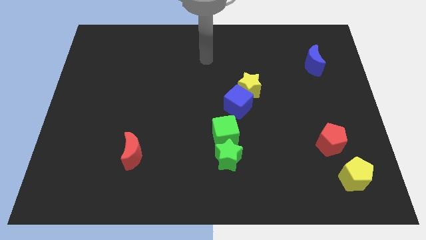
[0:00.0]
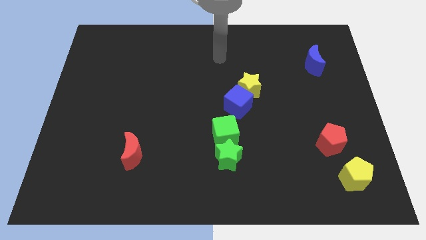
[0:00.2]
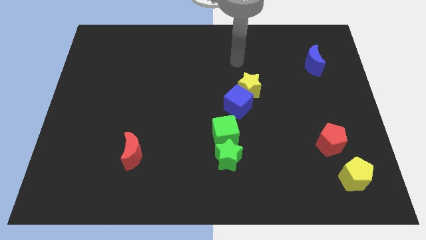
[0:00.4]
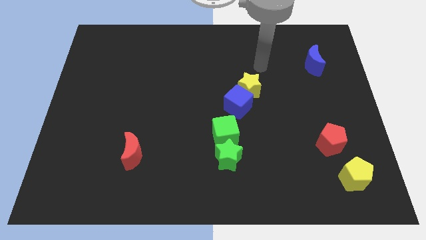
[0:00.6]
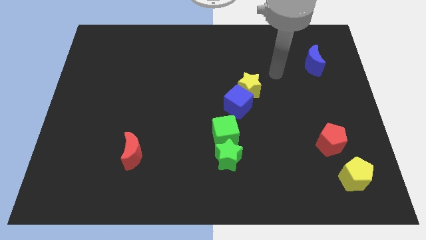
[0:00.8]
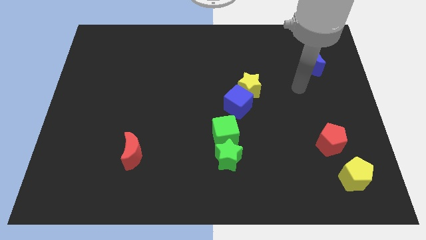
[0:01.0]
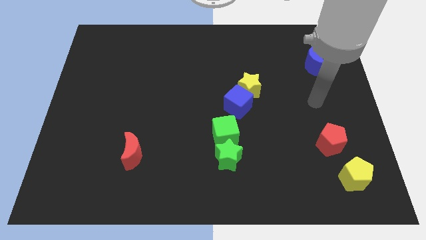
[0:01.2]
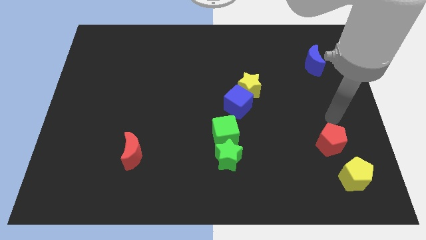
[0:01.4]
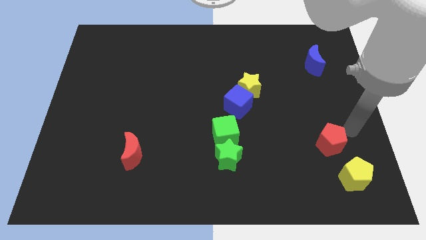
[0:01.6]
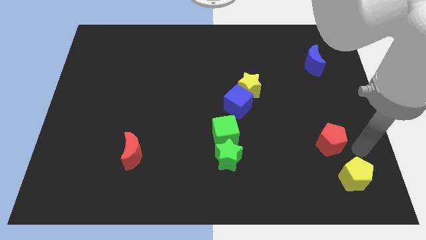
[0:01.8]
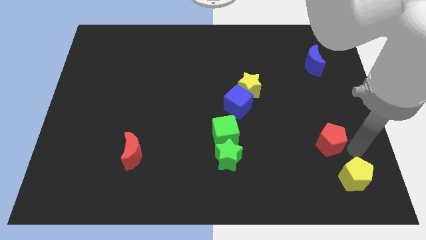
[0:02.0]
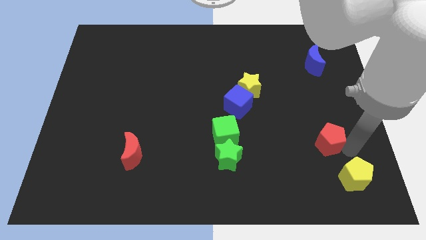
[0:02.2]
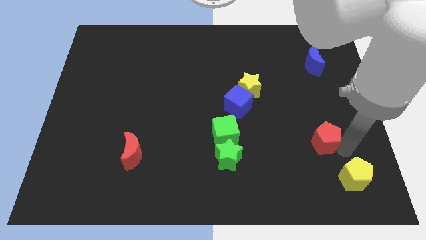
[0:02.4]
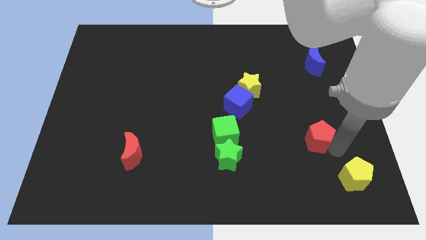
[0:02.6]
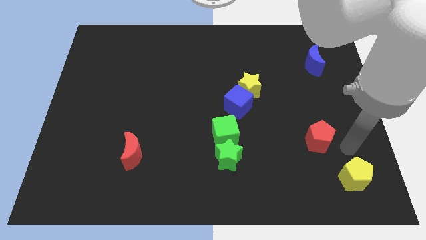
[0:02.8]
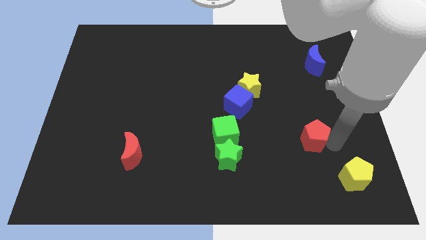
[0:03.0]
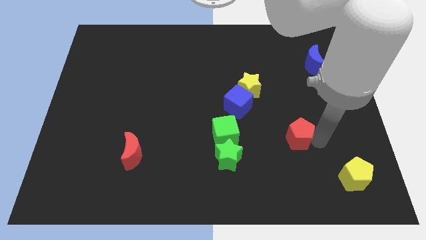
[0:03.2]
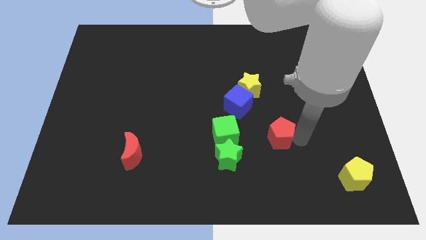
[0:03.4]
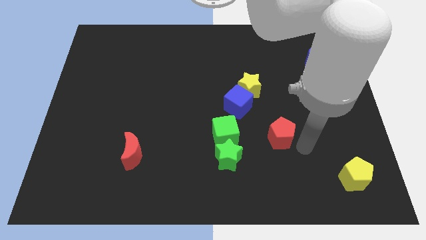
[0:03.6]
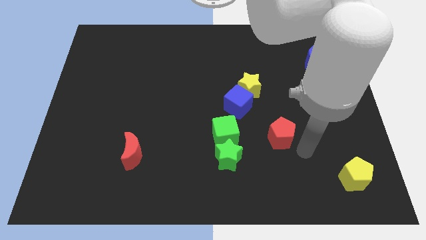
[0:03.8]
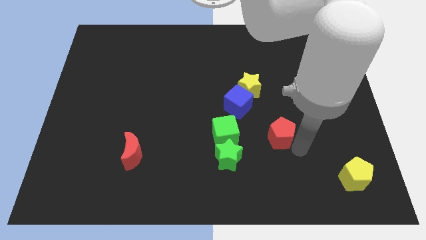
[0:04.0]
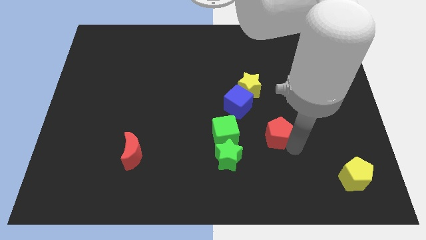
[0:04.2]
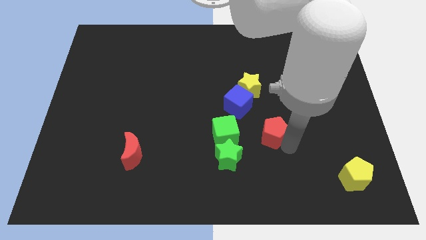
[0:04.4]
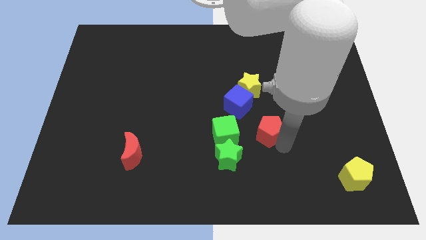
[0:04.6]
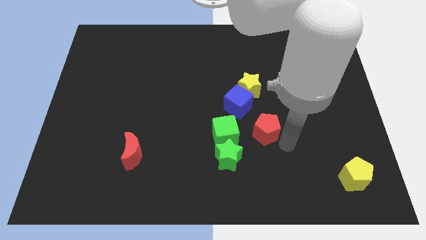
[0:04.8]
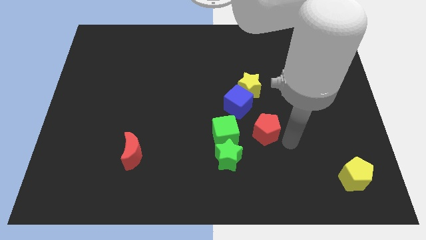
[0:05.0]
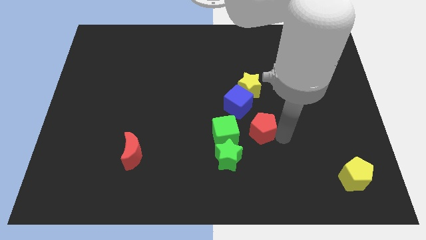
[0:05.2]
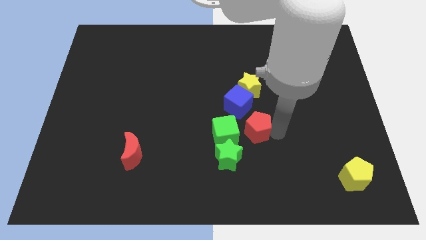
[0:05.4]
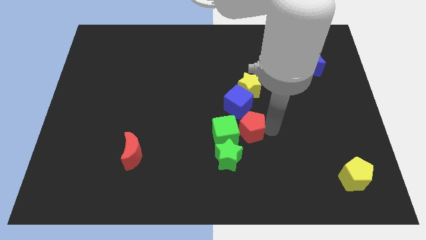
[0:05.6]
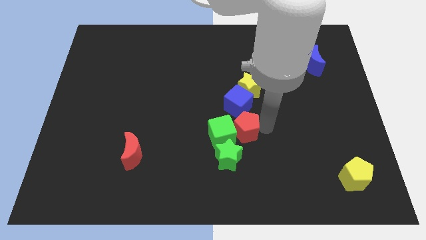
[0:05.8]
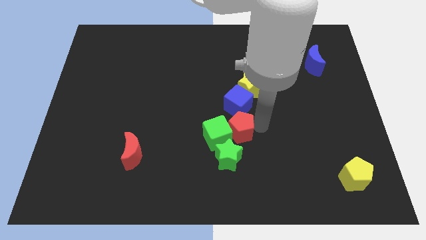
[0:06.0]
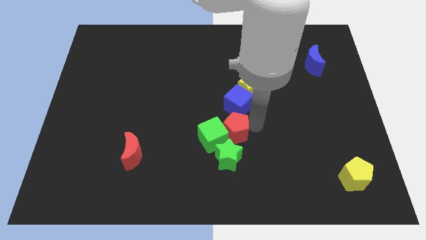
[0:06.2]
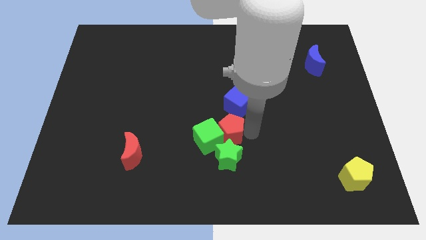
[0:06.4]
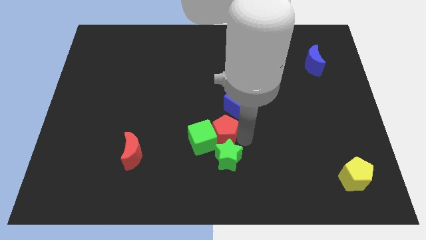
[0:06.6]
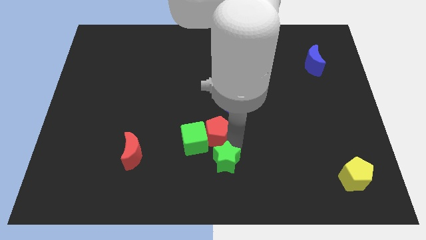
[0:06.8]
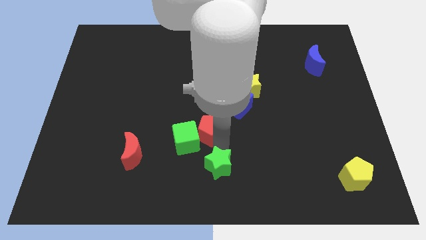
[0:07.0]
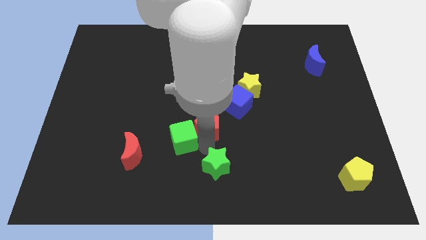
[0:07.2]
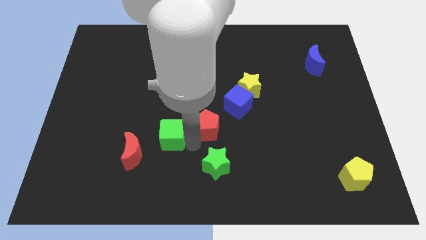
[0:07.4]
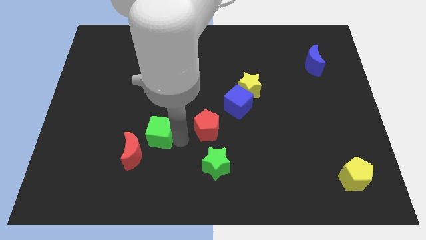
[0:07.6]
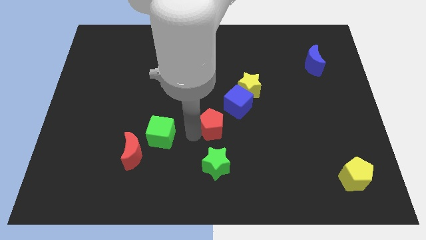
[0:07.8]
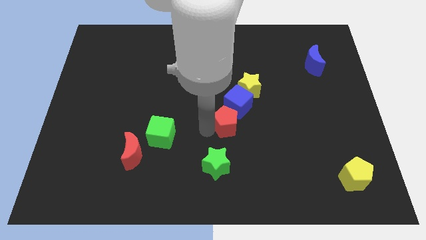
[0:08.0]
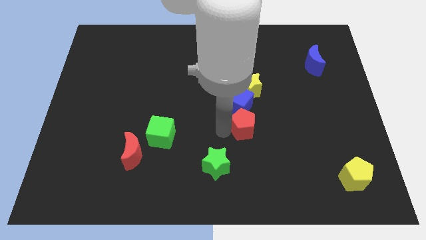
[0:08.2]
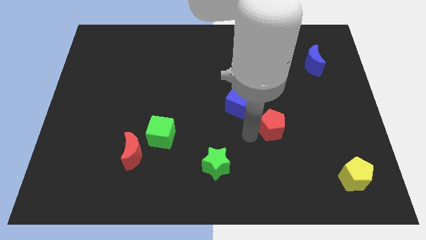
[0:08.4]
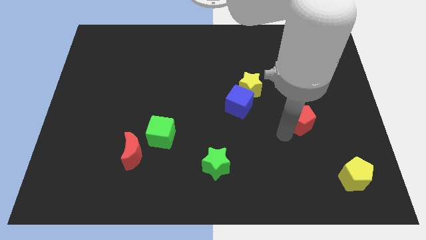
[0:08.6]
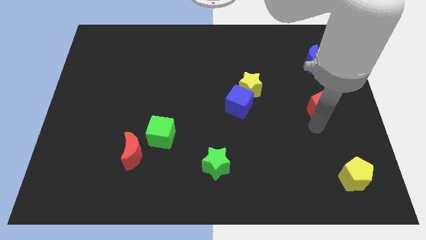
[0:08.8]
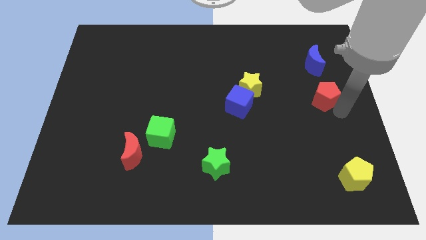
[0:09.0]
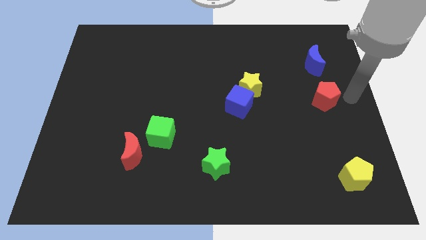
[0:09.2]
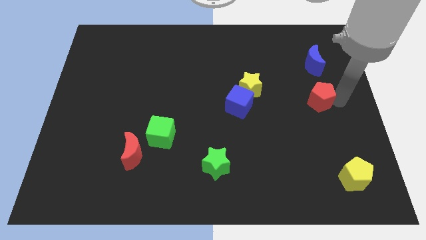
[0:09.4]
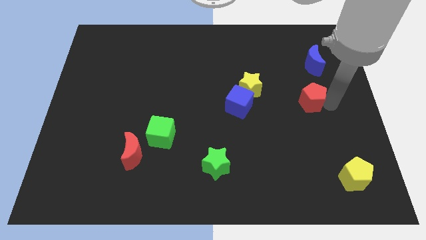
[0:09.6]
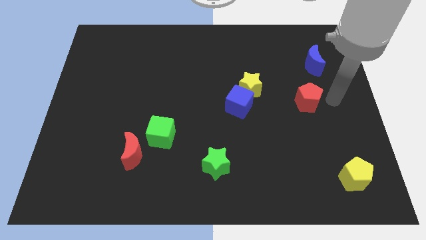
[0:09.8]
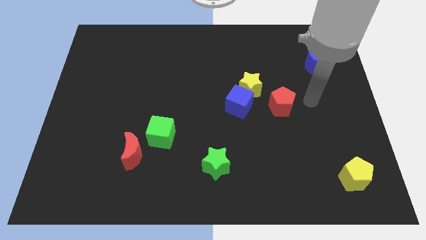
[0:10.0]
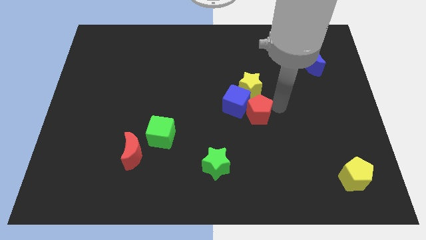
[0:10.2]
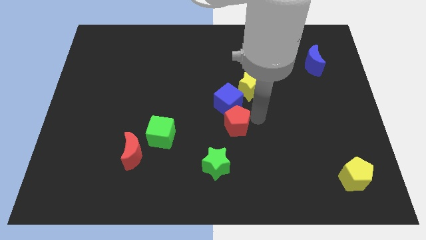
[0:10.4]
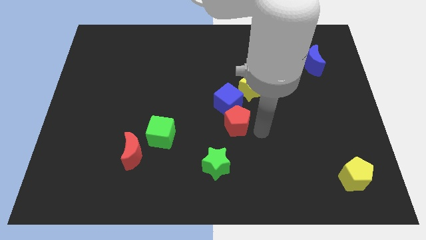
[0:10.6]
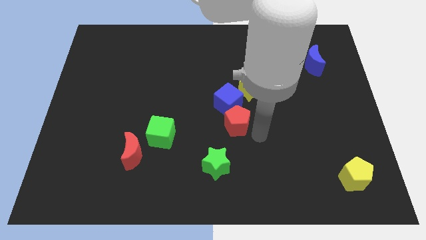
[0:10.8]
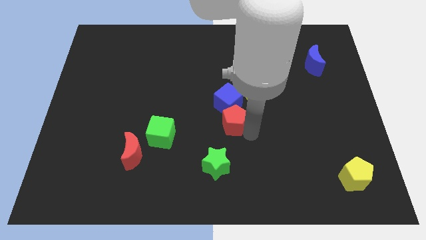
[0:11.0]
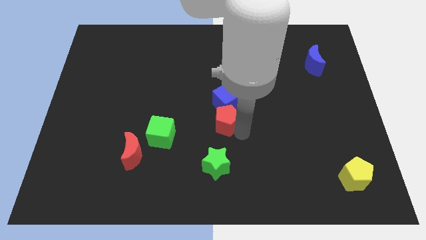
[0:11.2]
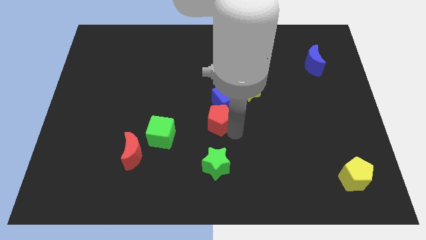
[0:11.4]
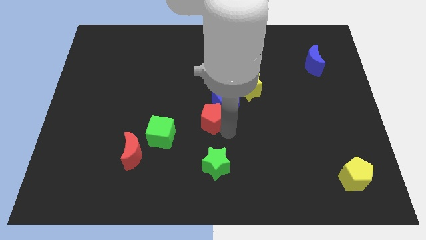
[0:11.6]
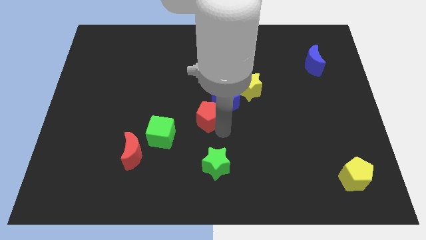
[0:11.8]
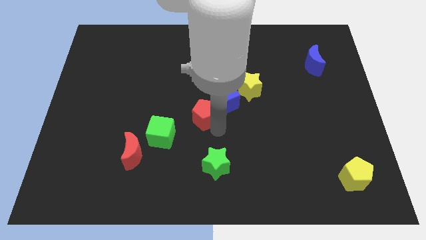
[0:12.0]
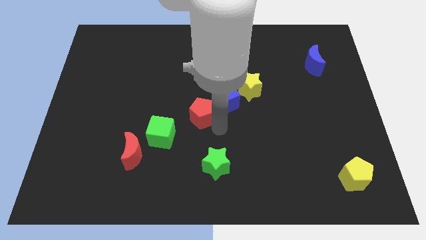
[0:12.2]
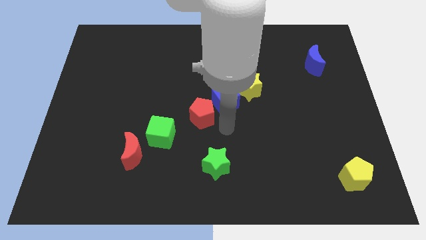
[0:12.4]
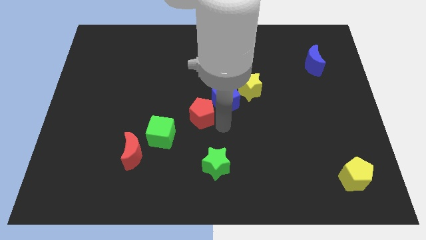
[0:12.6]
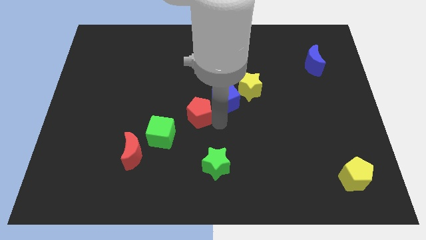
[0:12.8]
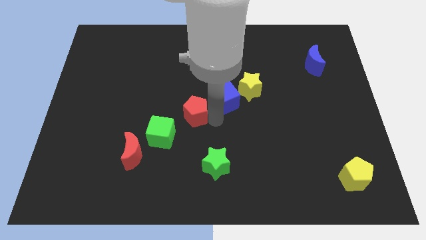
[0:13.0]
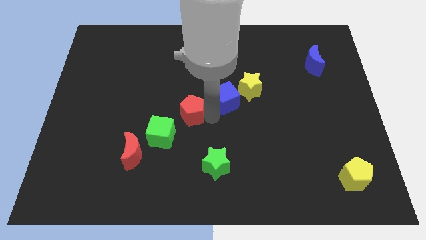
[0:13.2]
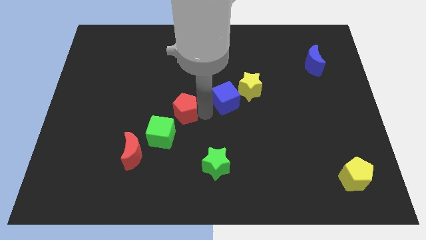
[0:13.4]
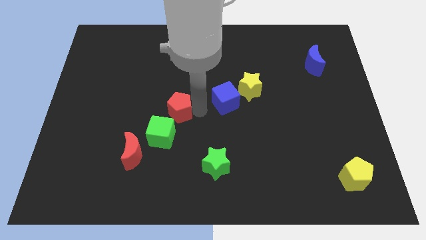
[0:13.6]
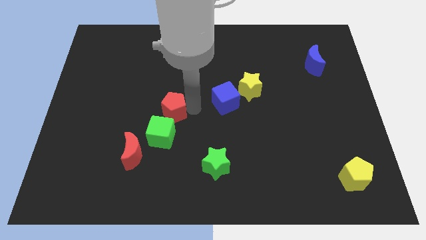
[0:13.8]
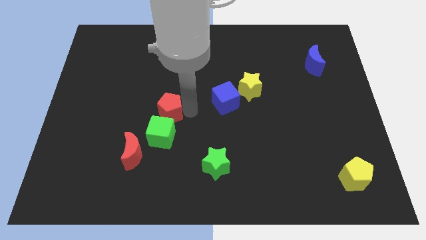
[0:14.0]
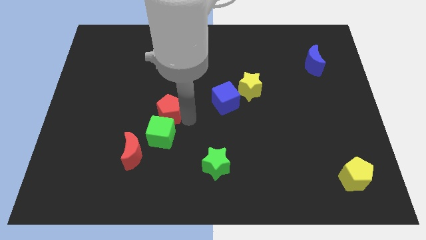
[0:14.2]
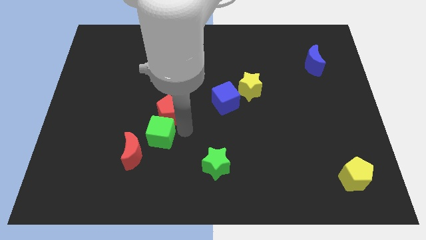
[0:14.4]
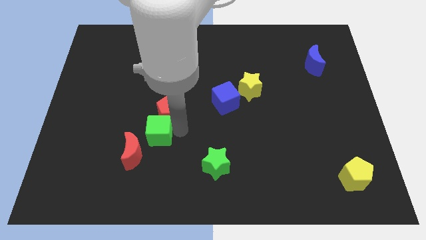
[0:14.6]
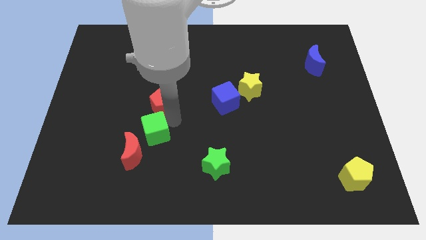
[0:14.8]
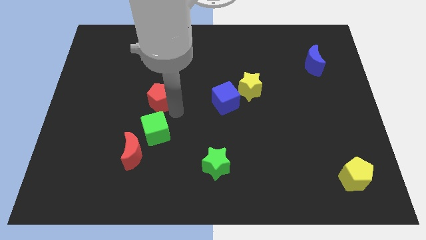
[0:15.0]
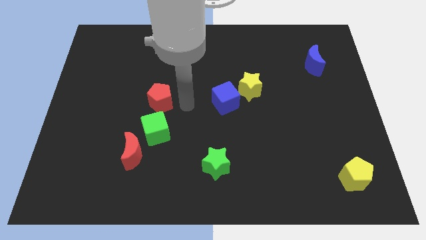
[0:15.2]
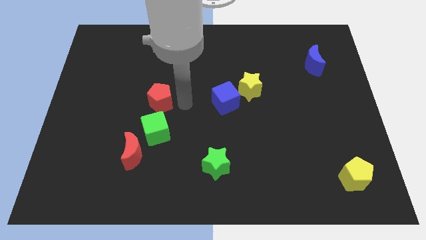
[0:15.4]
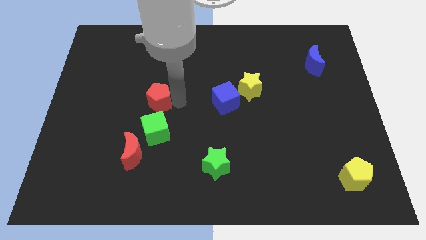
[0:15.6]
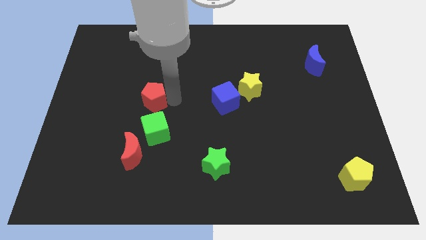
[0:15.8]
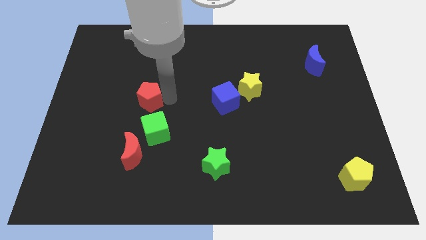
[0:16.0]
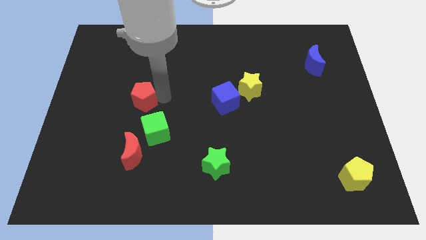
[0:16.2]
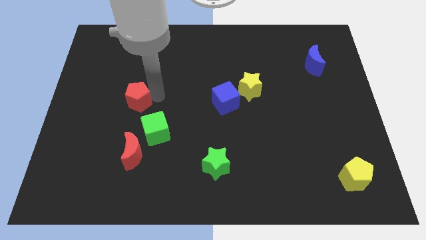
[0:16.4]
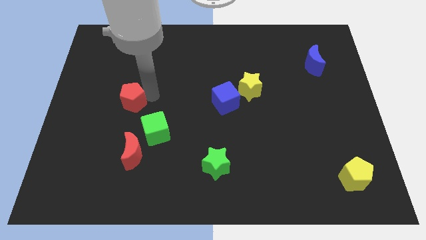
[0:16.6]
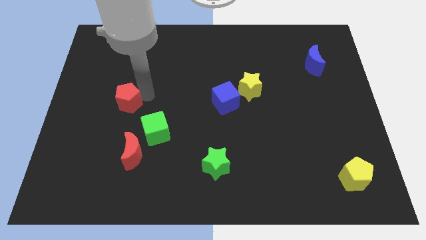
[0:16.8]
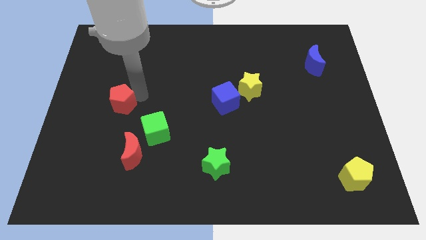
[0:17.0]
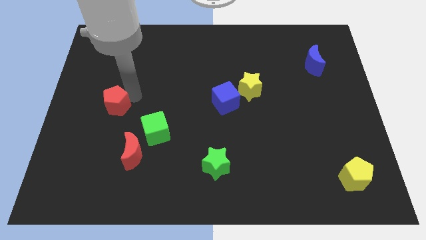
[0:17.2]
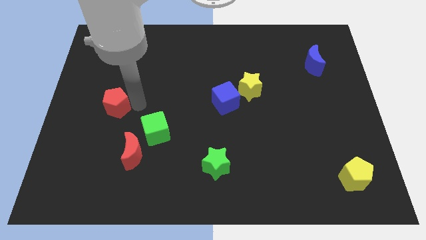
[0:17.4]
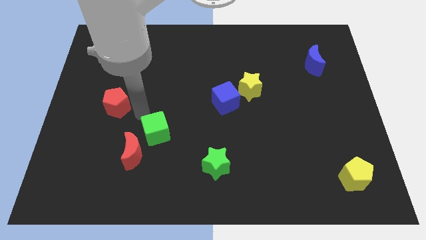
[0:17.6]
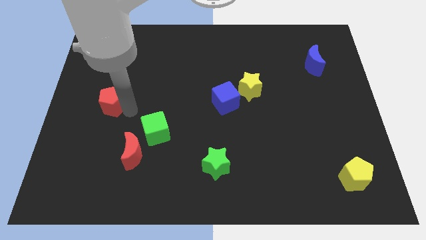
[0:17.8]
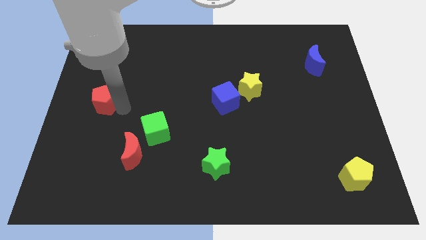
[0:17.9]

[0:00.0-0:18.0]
put the red pentagon to the left side
